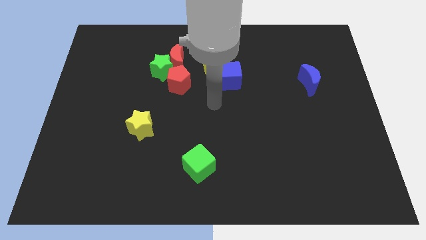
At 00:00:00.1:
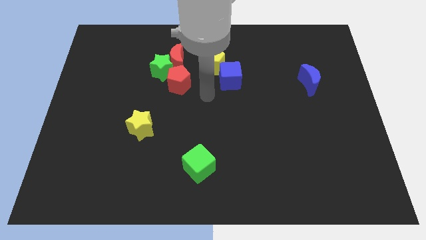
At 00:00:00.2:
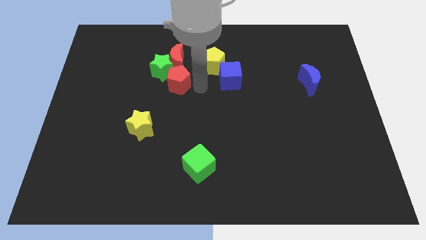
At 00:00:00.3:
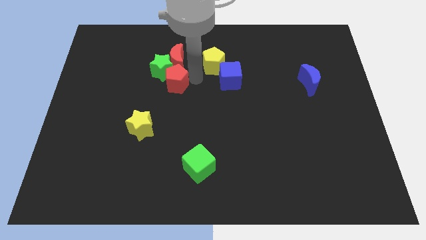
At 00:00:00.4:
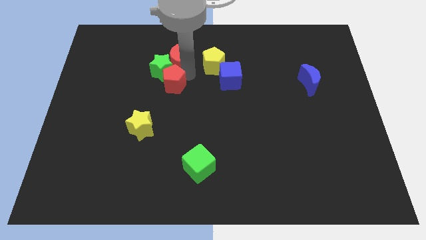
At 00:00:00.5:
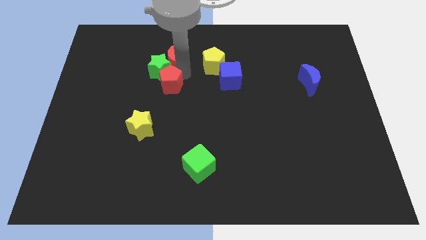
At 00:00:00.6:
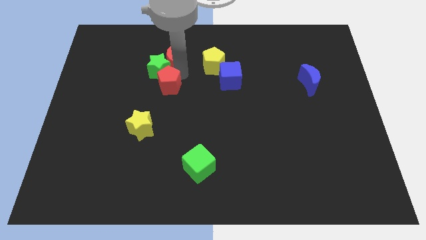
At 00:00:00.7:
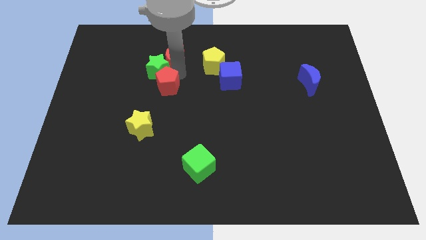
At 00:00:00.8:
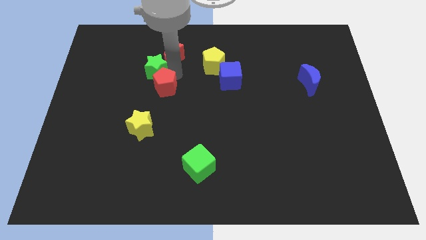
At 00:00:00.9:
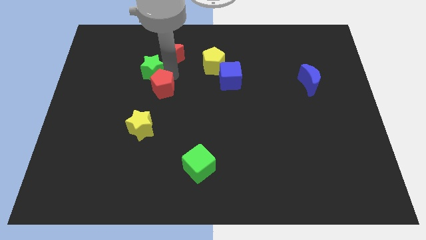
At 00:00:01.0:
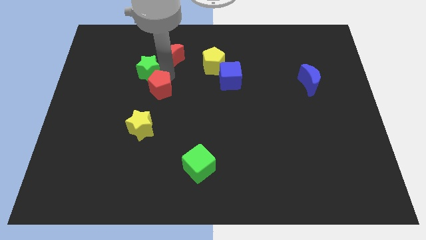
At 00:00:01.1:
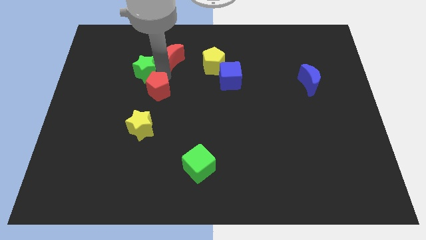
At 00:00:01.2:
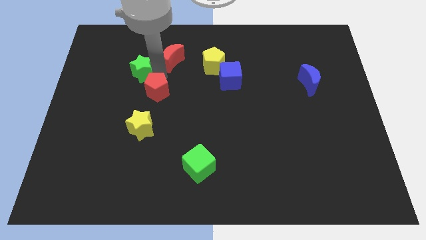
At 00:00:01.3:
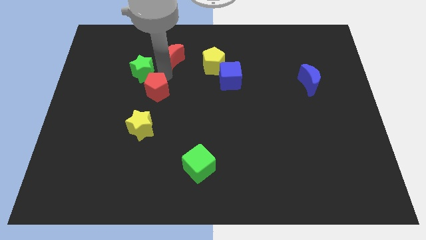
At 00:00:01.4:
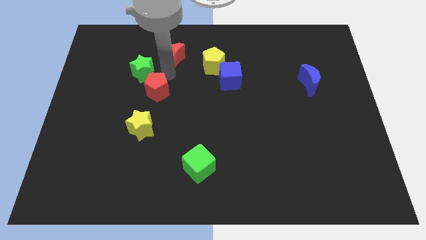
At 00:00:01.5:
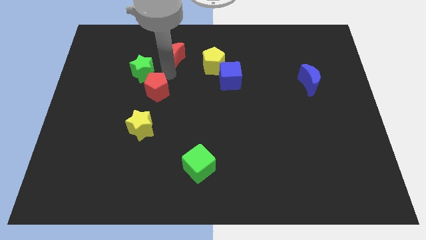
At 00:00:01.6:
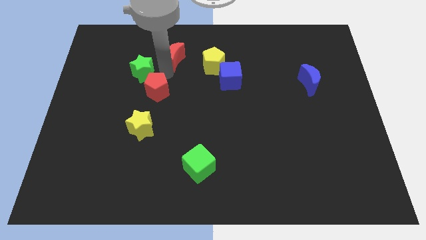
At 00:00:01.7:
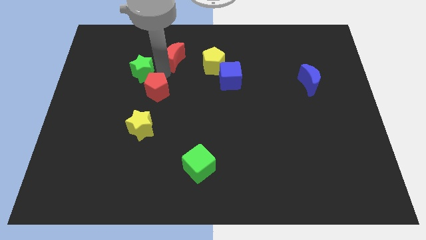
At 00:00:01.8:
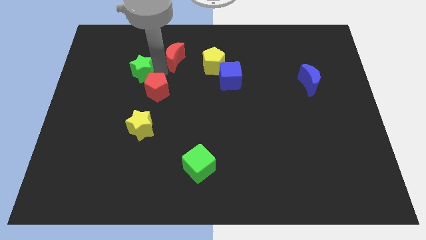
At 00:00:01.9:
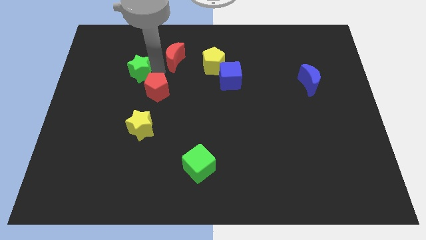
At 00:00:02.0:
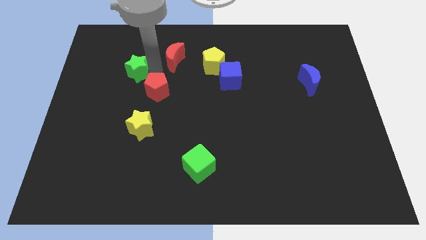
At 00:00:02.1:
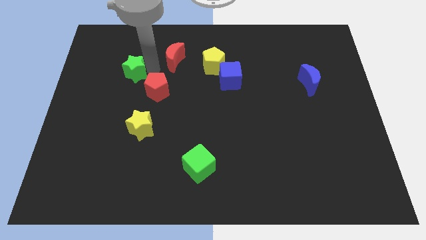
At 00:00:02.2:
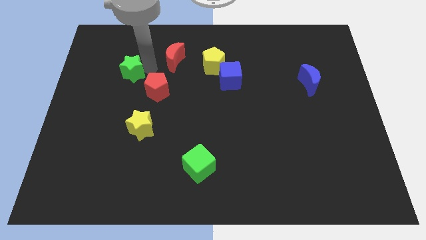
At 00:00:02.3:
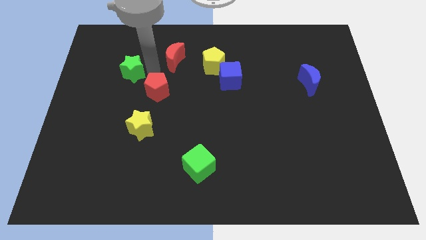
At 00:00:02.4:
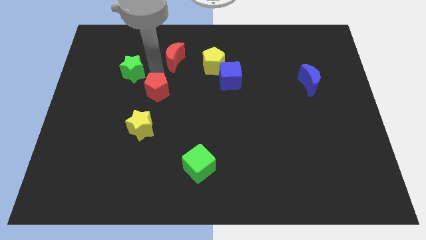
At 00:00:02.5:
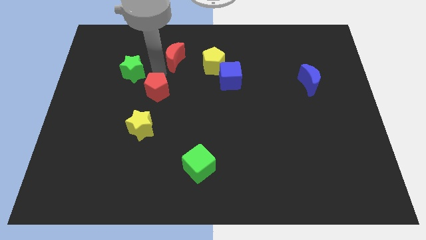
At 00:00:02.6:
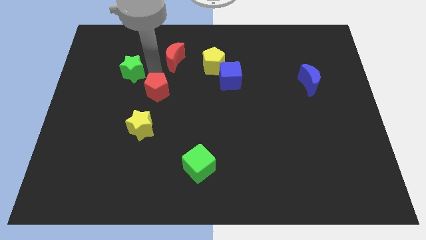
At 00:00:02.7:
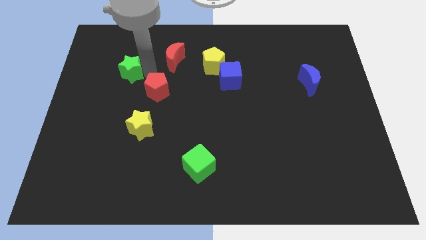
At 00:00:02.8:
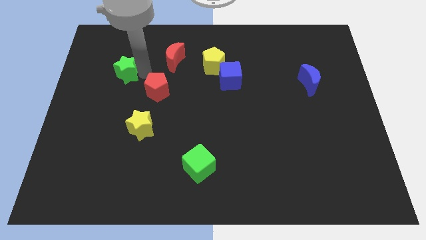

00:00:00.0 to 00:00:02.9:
move the green star away from the red moon and red pentagon

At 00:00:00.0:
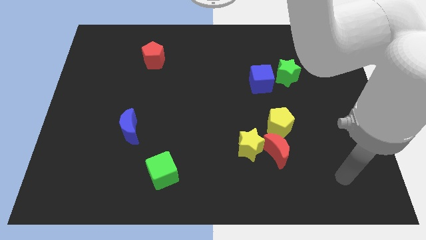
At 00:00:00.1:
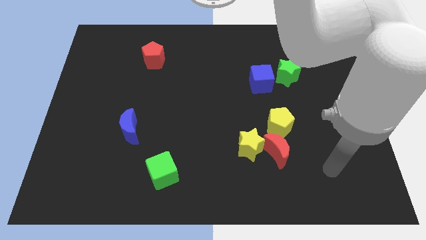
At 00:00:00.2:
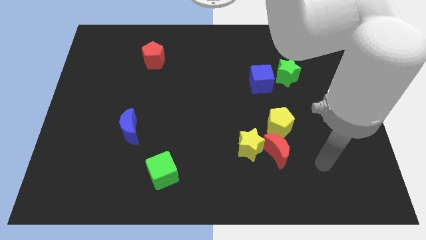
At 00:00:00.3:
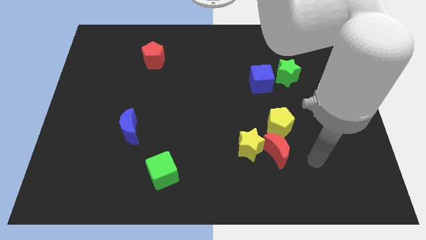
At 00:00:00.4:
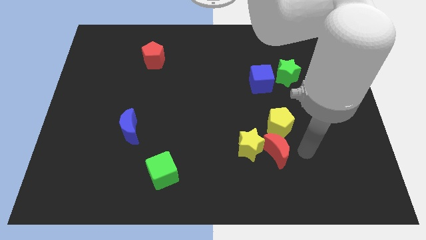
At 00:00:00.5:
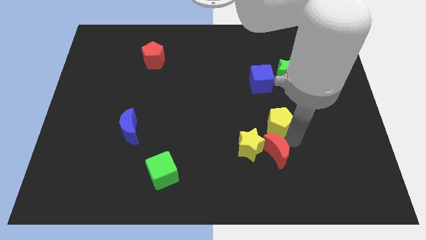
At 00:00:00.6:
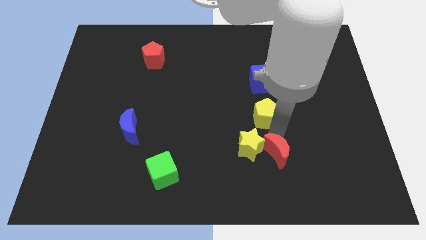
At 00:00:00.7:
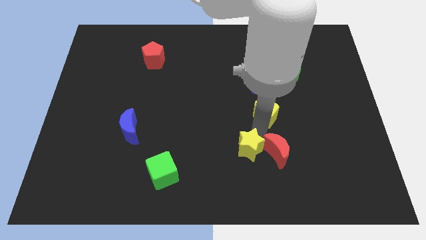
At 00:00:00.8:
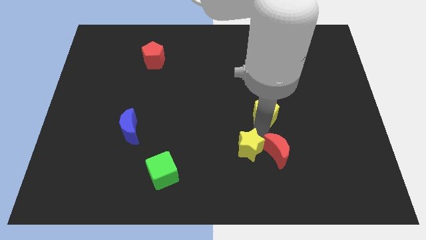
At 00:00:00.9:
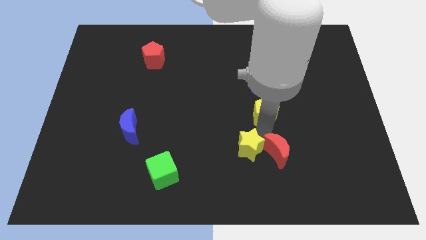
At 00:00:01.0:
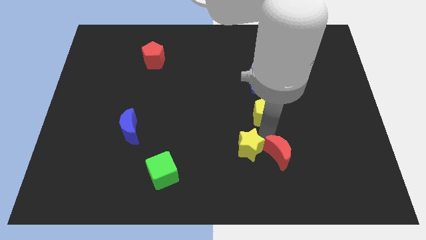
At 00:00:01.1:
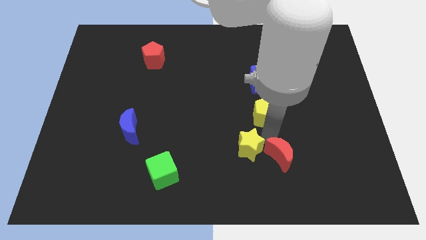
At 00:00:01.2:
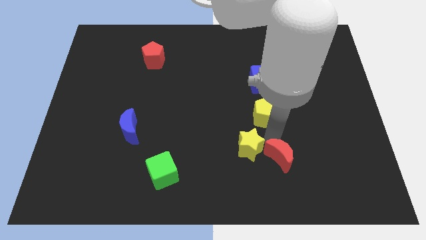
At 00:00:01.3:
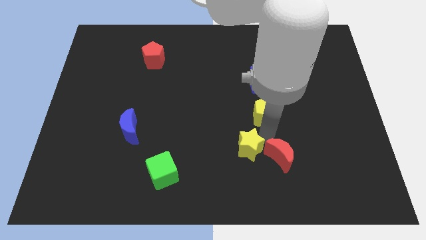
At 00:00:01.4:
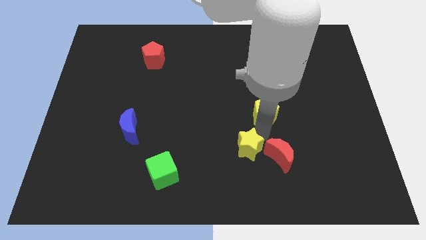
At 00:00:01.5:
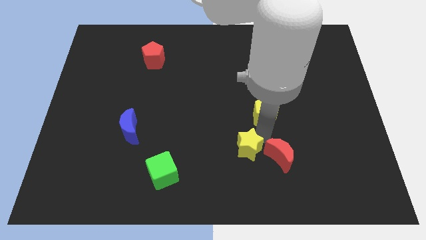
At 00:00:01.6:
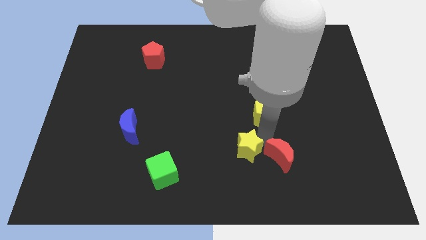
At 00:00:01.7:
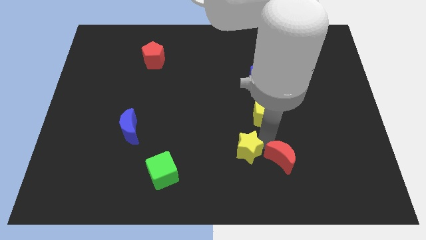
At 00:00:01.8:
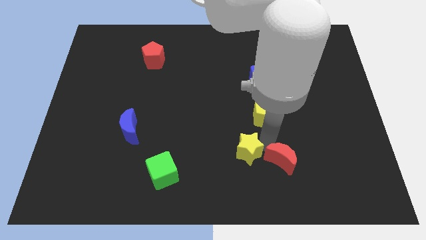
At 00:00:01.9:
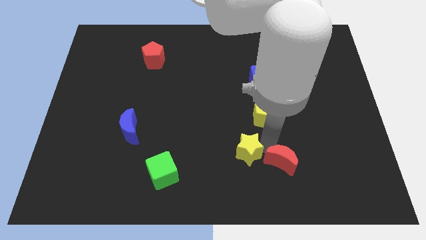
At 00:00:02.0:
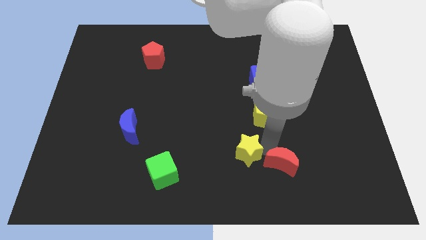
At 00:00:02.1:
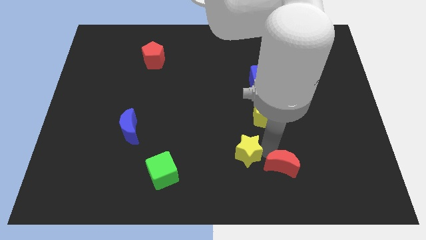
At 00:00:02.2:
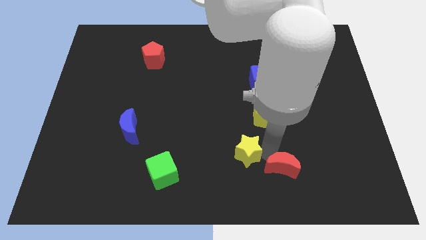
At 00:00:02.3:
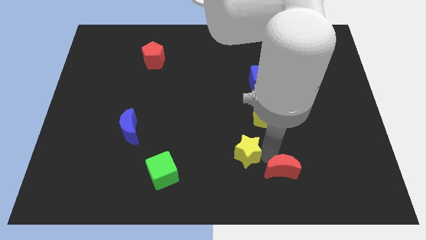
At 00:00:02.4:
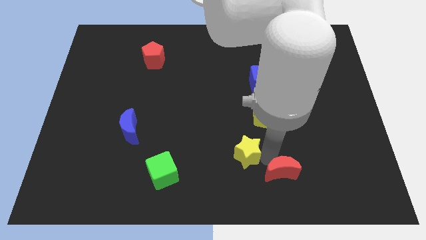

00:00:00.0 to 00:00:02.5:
separate the red moon from the yellow star and yellow pentagon

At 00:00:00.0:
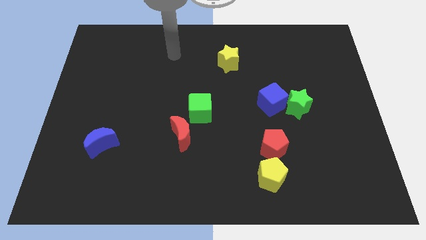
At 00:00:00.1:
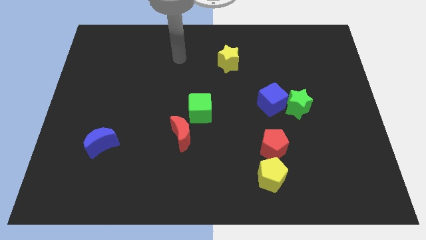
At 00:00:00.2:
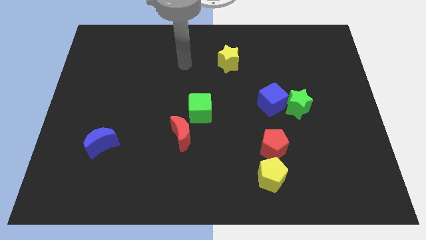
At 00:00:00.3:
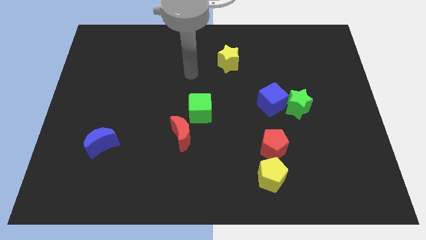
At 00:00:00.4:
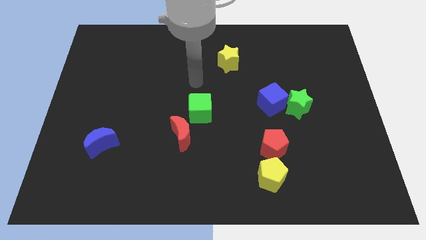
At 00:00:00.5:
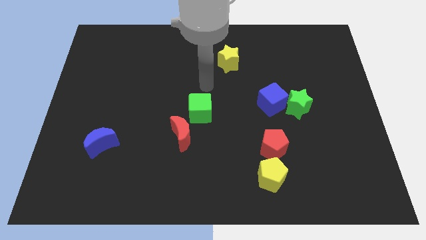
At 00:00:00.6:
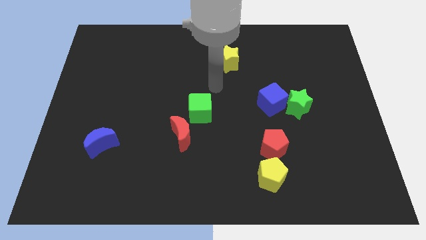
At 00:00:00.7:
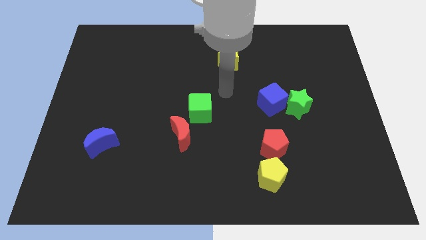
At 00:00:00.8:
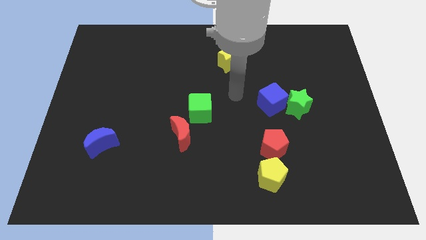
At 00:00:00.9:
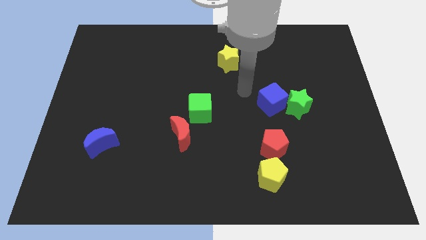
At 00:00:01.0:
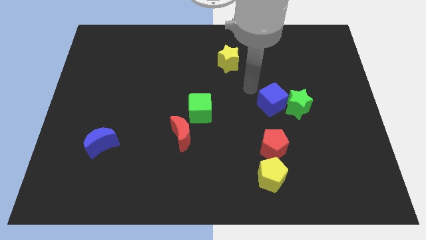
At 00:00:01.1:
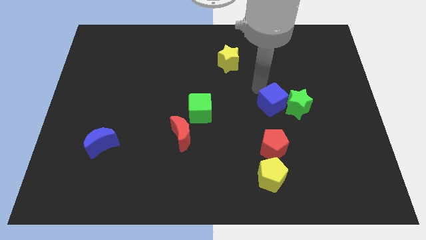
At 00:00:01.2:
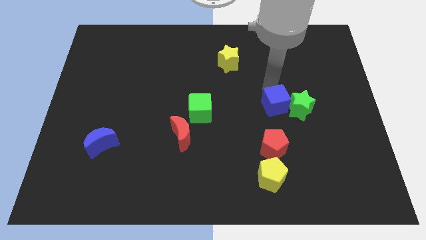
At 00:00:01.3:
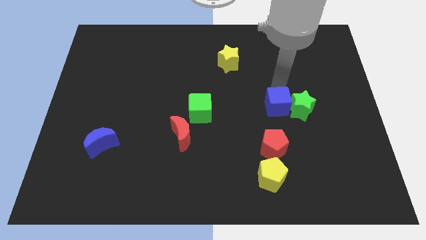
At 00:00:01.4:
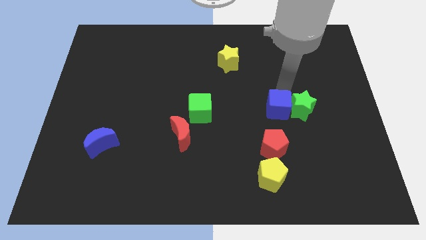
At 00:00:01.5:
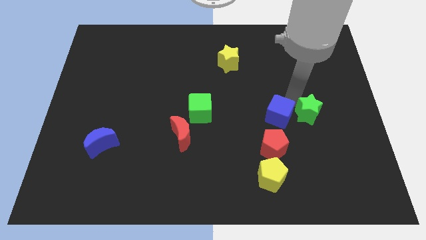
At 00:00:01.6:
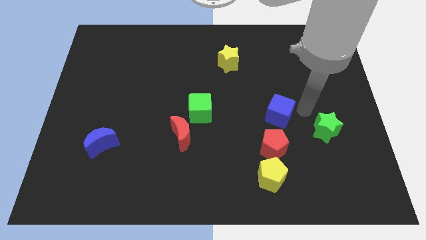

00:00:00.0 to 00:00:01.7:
move the blue cube away from the green star

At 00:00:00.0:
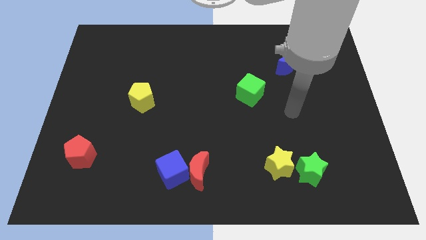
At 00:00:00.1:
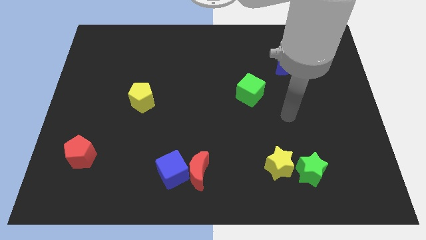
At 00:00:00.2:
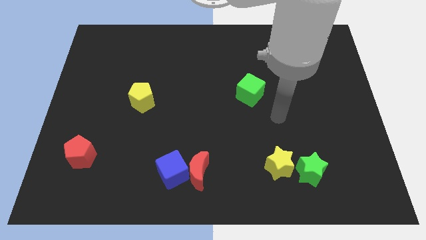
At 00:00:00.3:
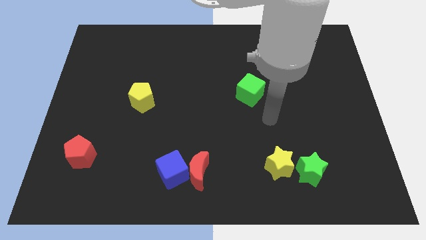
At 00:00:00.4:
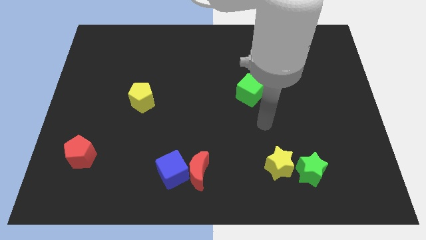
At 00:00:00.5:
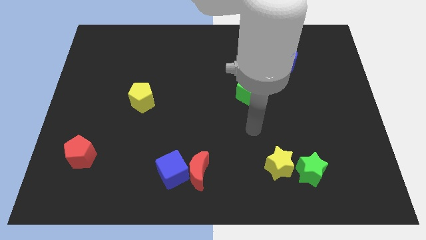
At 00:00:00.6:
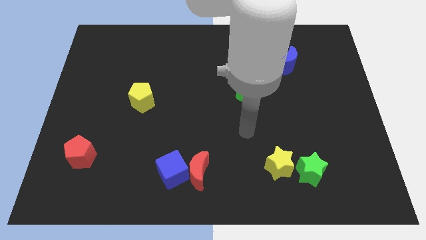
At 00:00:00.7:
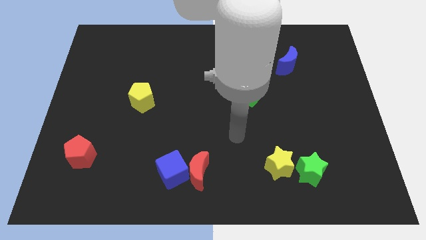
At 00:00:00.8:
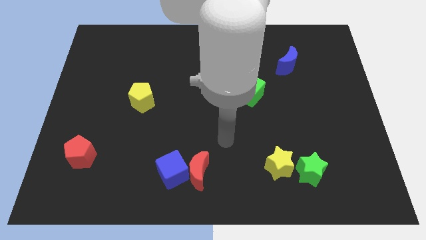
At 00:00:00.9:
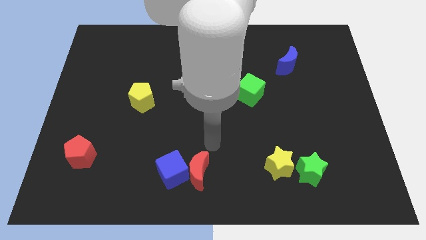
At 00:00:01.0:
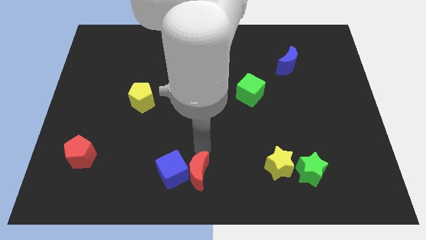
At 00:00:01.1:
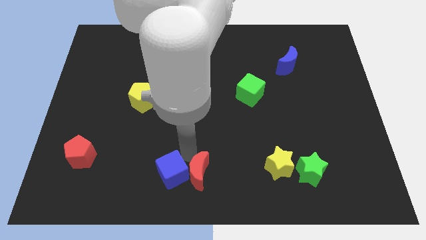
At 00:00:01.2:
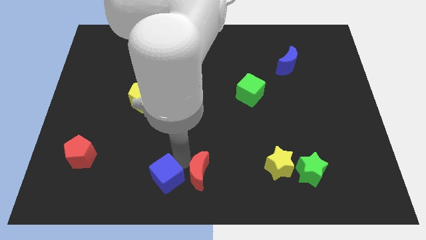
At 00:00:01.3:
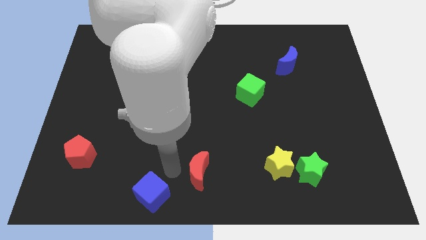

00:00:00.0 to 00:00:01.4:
move the red moon away from the blue cube

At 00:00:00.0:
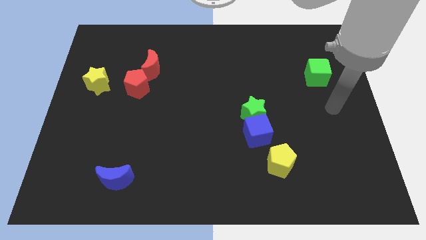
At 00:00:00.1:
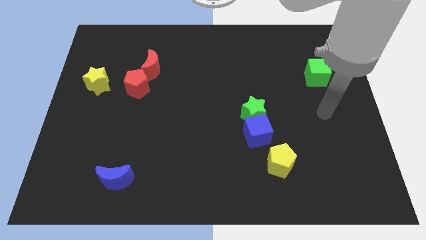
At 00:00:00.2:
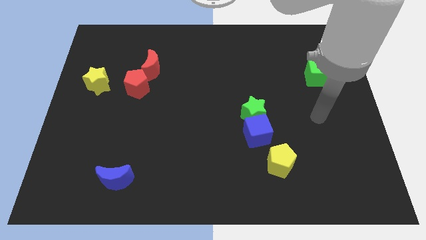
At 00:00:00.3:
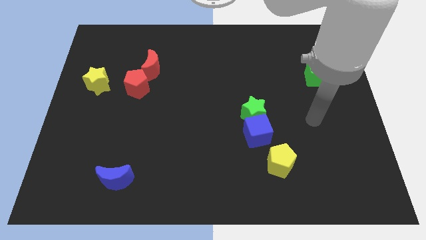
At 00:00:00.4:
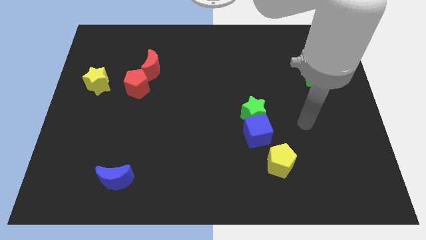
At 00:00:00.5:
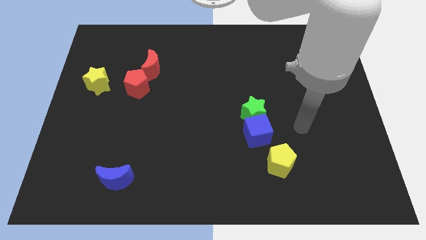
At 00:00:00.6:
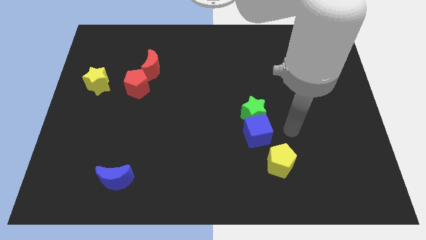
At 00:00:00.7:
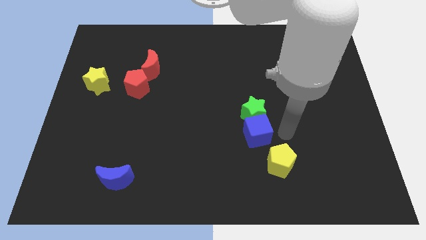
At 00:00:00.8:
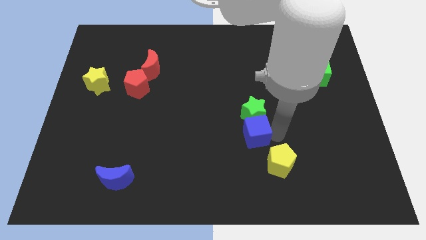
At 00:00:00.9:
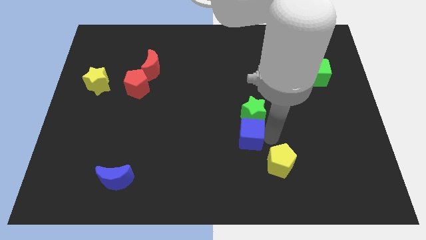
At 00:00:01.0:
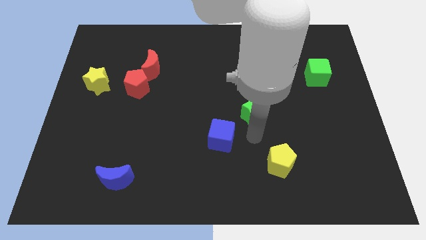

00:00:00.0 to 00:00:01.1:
pull the green star apart from the blue cube
